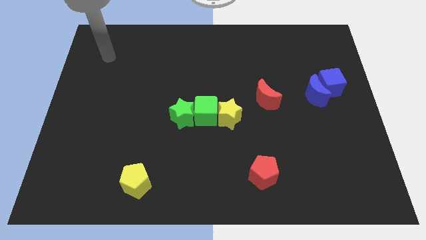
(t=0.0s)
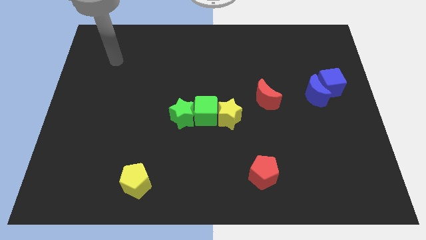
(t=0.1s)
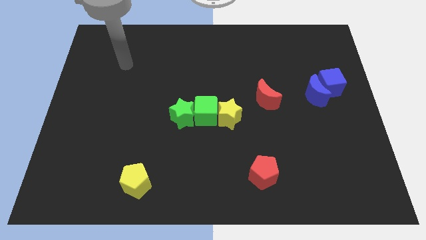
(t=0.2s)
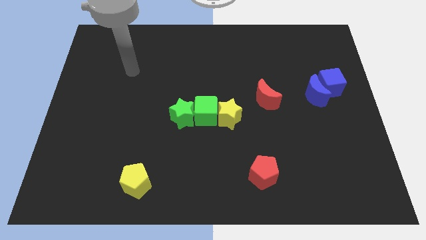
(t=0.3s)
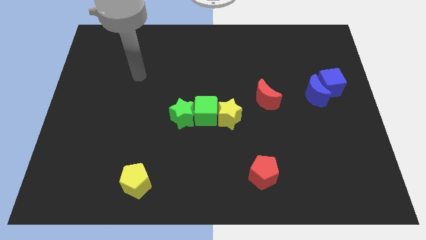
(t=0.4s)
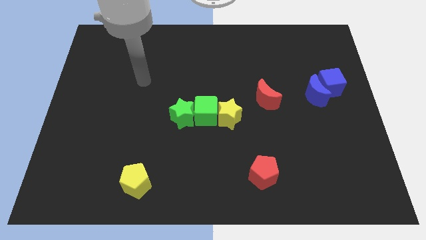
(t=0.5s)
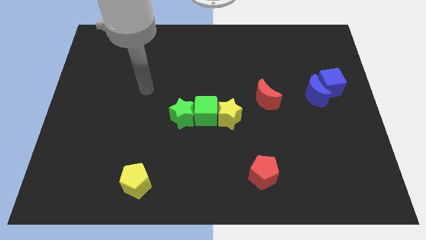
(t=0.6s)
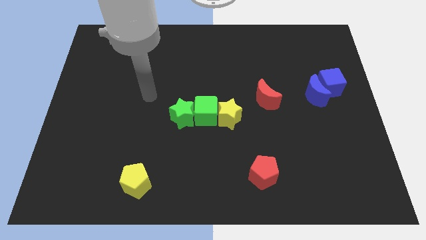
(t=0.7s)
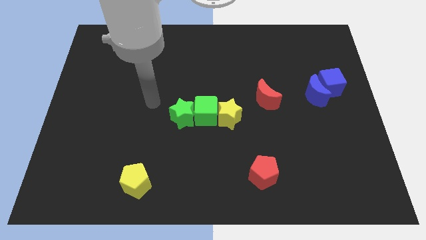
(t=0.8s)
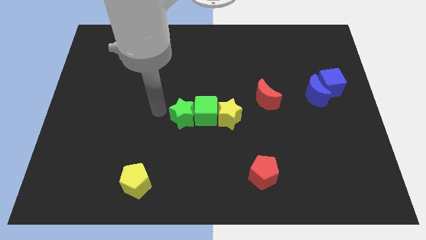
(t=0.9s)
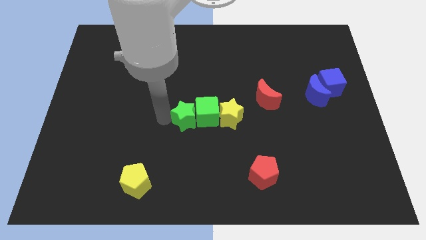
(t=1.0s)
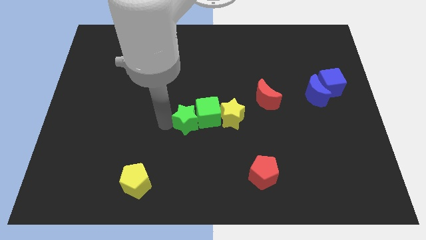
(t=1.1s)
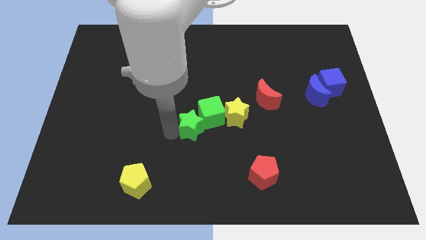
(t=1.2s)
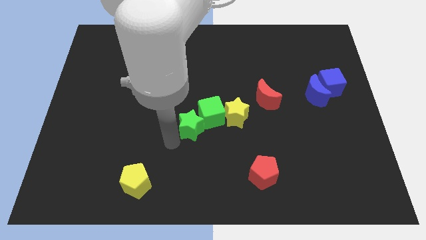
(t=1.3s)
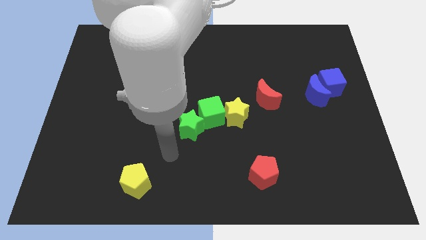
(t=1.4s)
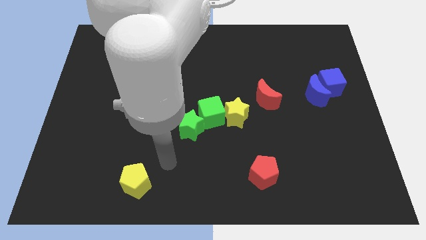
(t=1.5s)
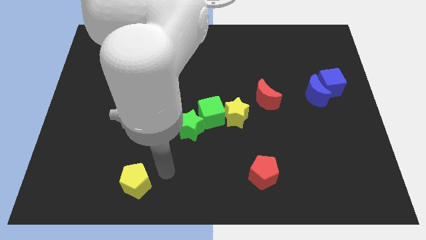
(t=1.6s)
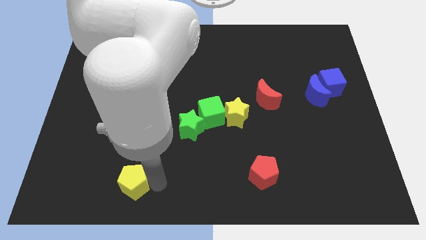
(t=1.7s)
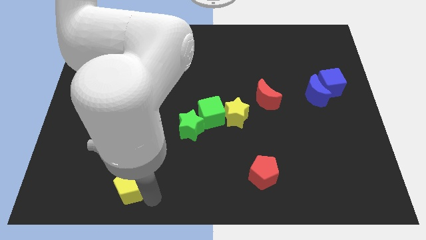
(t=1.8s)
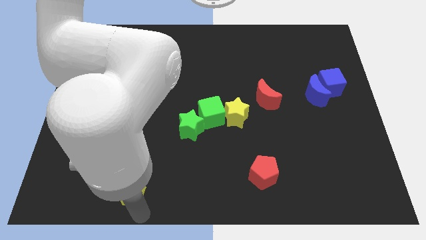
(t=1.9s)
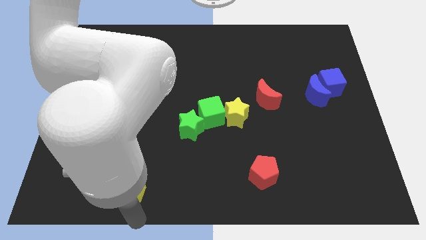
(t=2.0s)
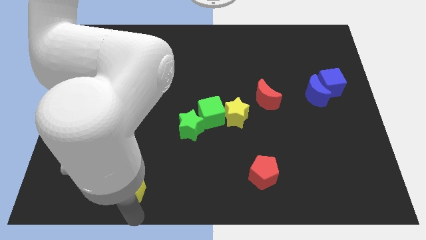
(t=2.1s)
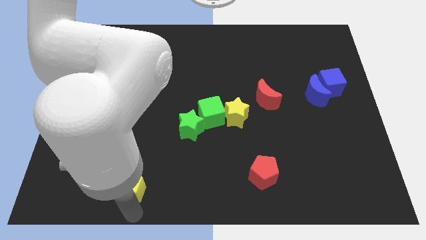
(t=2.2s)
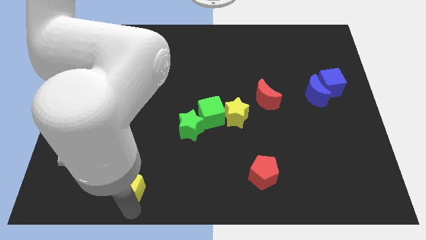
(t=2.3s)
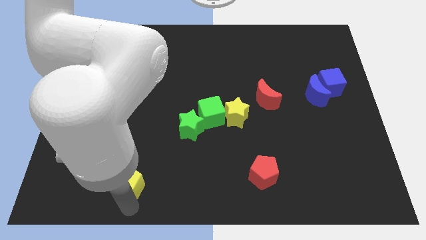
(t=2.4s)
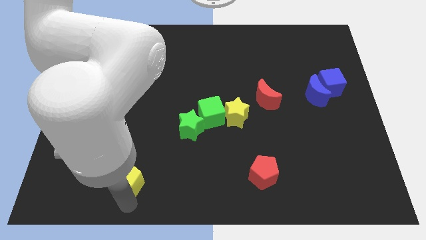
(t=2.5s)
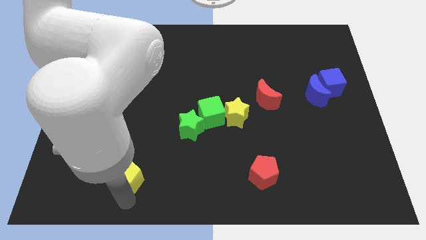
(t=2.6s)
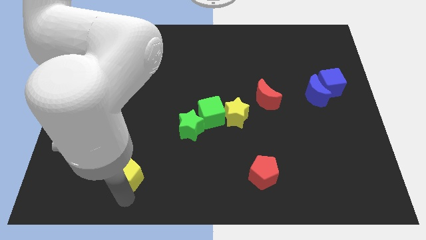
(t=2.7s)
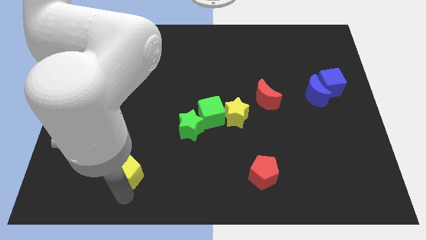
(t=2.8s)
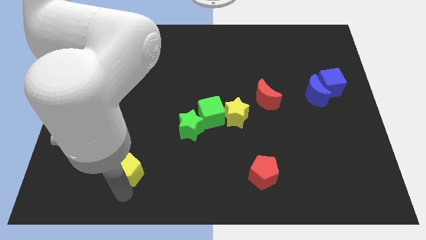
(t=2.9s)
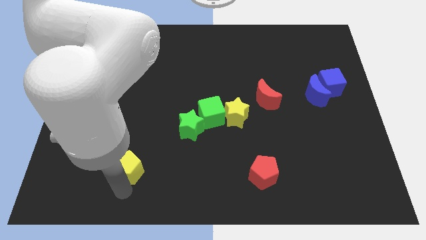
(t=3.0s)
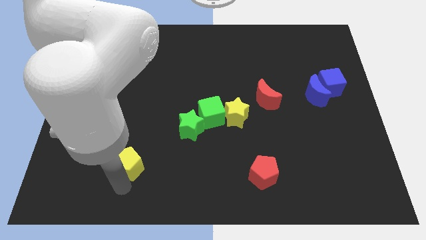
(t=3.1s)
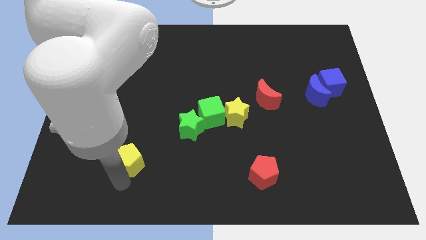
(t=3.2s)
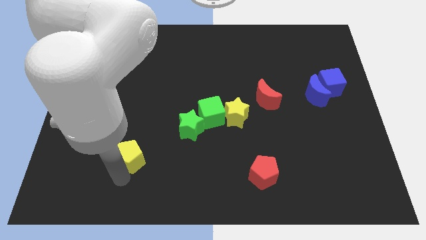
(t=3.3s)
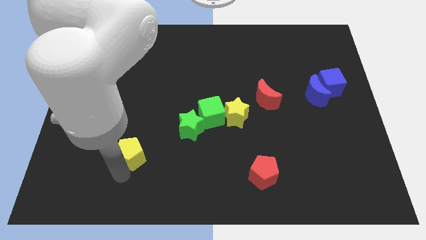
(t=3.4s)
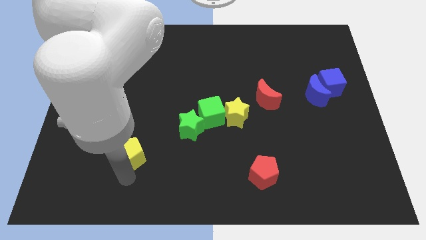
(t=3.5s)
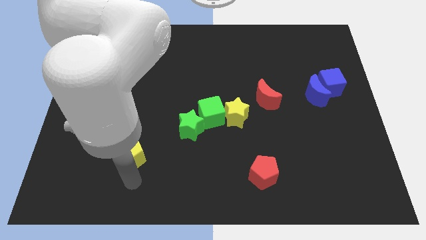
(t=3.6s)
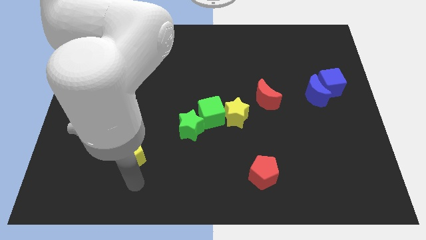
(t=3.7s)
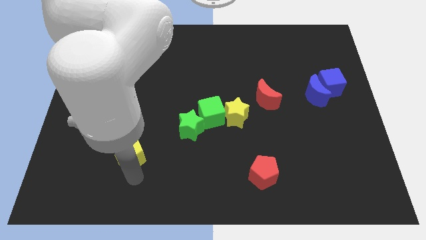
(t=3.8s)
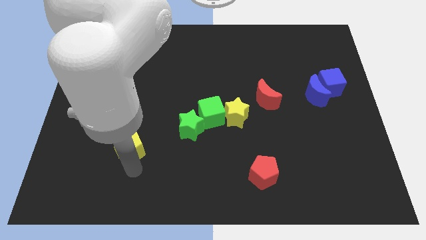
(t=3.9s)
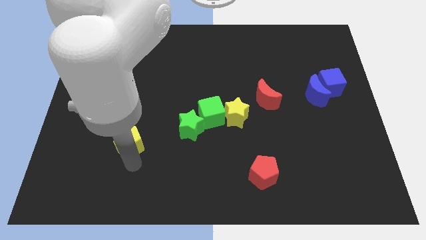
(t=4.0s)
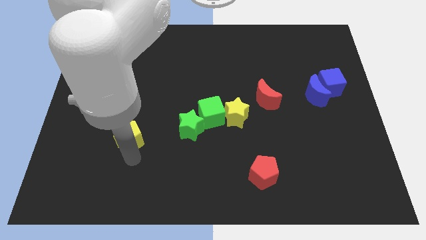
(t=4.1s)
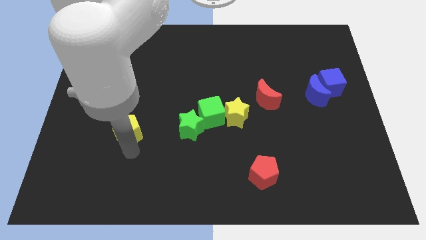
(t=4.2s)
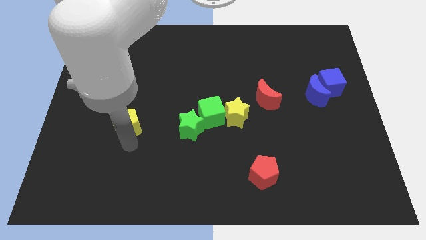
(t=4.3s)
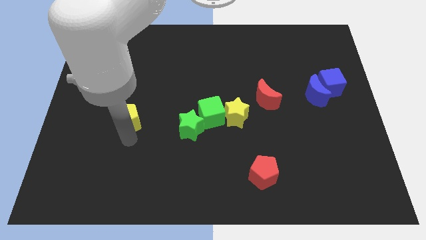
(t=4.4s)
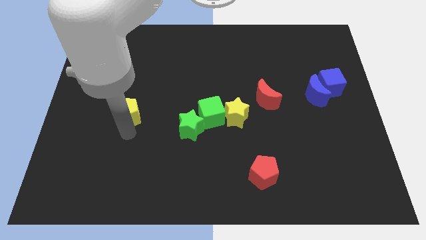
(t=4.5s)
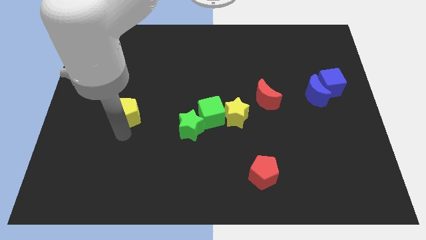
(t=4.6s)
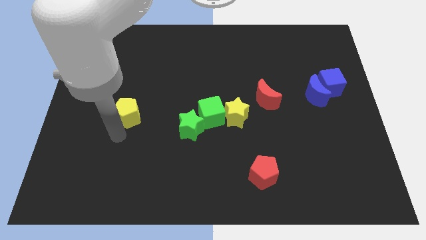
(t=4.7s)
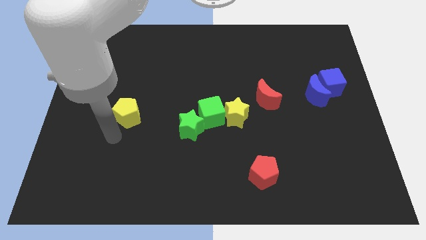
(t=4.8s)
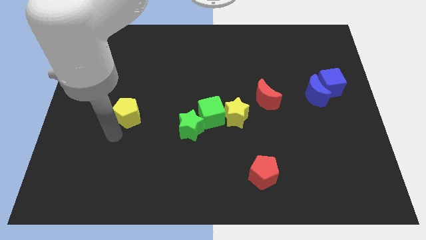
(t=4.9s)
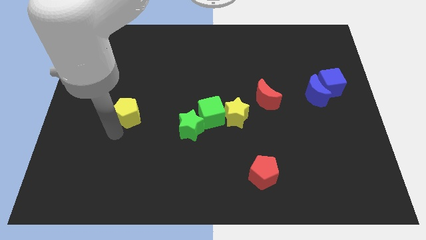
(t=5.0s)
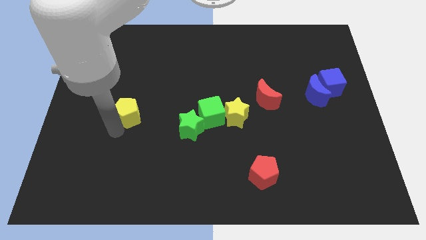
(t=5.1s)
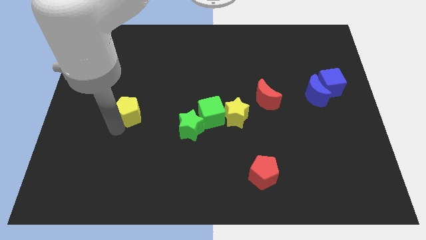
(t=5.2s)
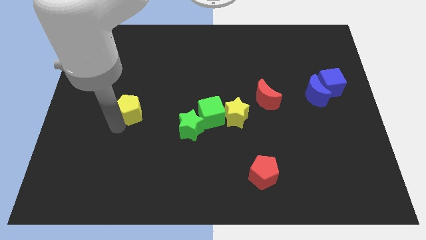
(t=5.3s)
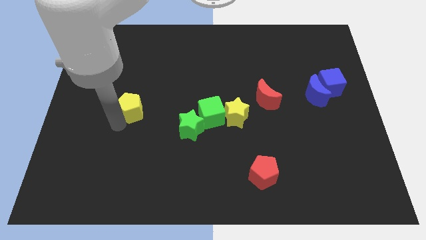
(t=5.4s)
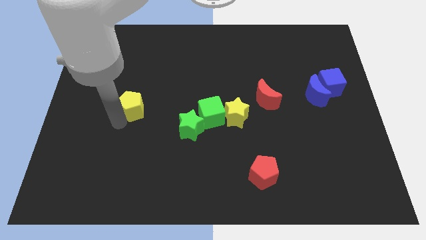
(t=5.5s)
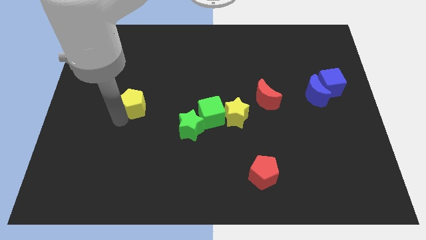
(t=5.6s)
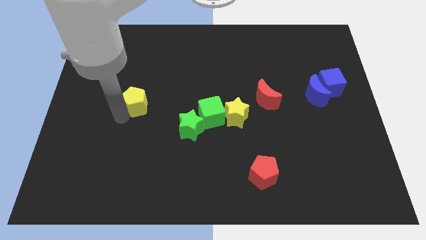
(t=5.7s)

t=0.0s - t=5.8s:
move the yellow pentagon up

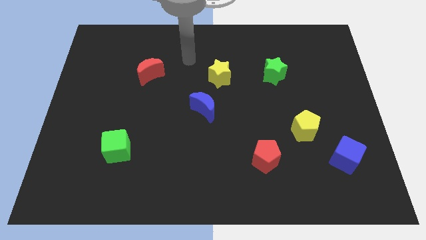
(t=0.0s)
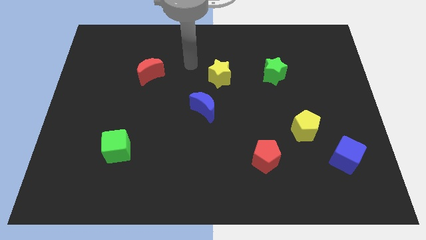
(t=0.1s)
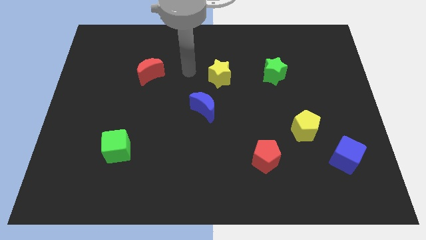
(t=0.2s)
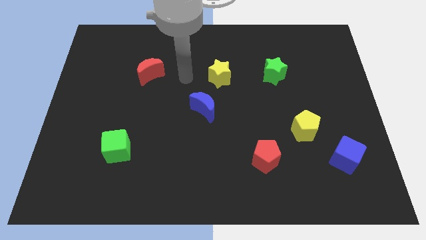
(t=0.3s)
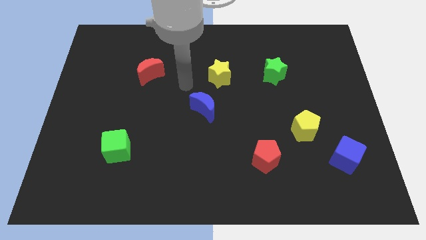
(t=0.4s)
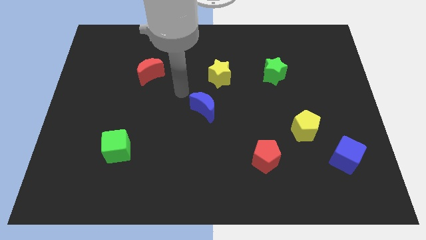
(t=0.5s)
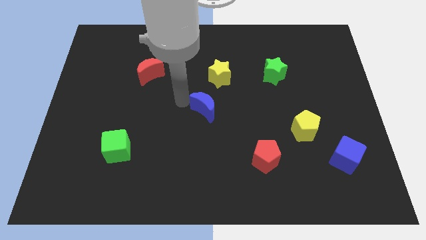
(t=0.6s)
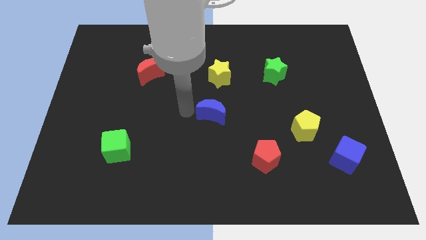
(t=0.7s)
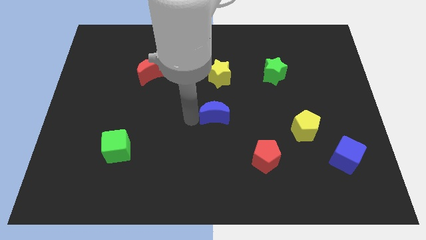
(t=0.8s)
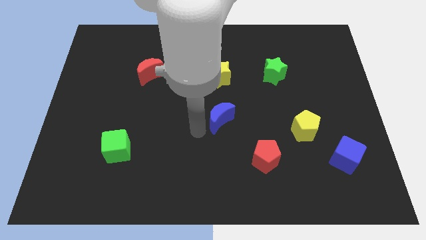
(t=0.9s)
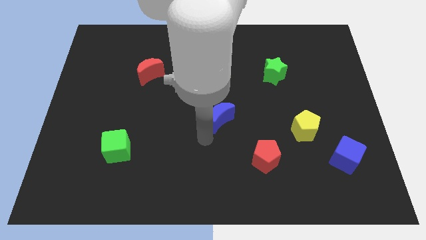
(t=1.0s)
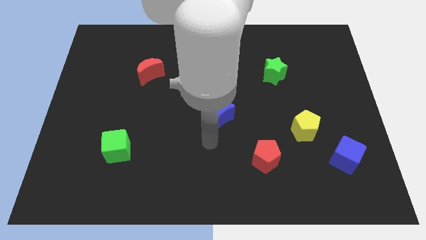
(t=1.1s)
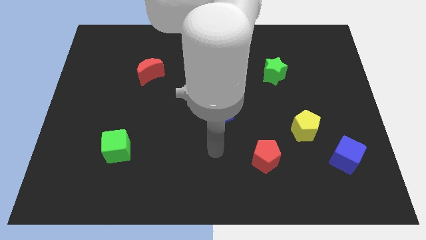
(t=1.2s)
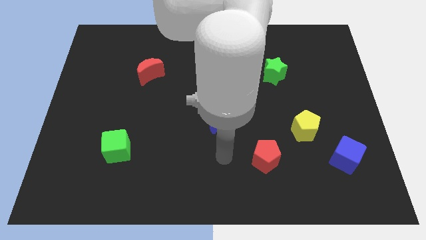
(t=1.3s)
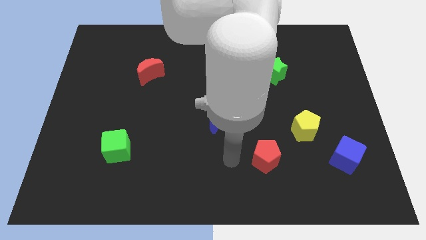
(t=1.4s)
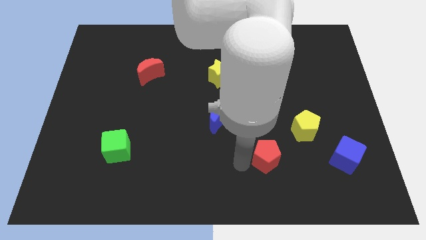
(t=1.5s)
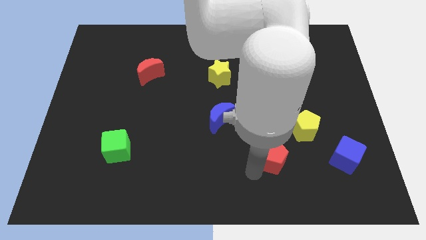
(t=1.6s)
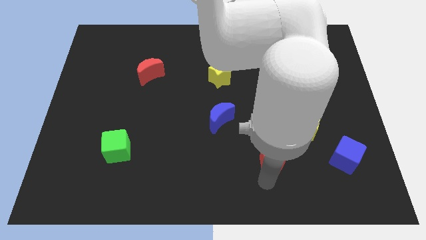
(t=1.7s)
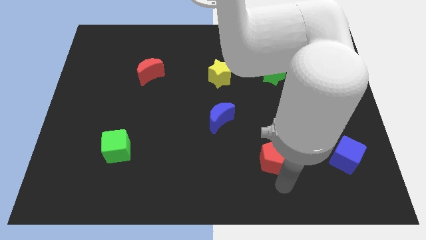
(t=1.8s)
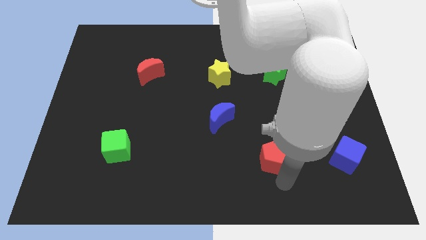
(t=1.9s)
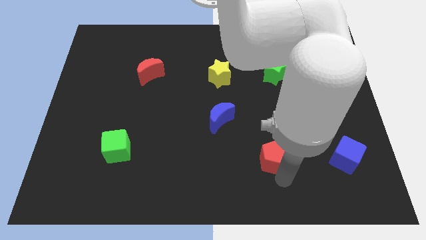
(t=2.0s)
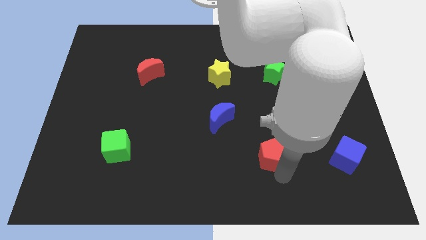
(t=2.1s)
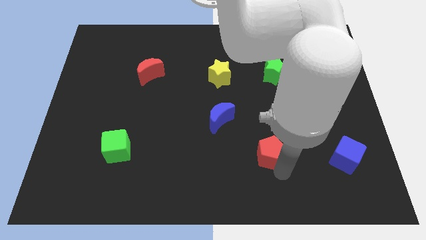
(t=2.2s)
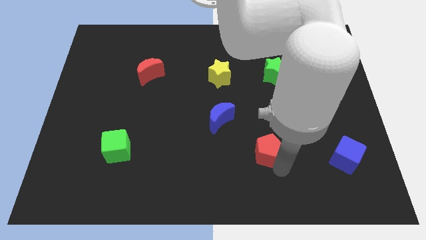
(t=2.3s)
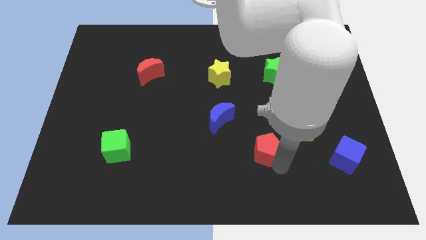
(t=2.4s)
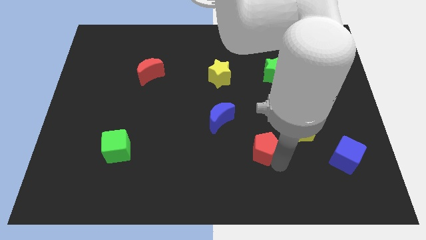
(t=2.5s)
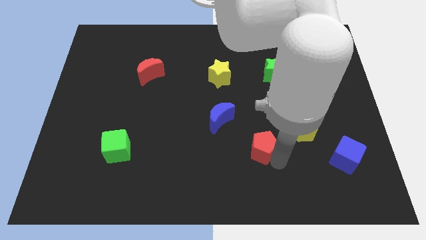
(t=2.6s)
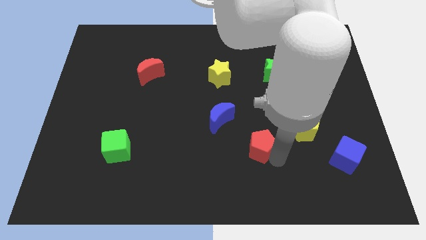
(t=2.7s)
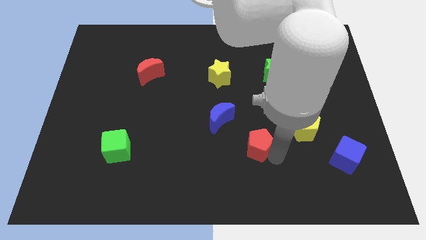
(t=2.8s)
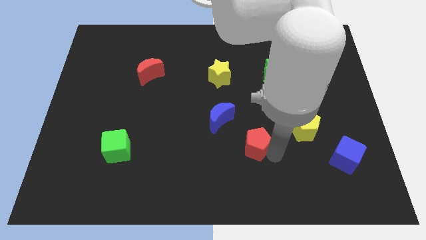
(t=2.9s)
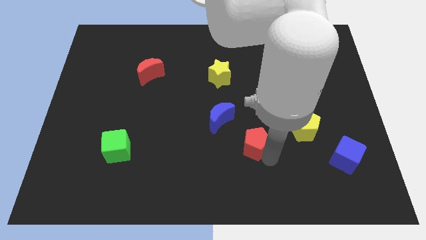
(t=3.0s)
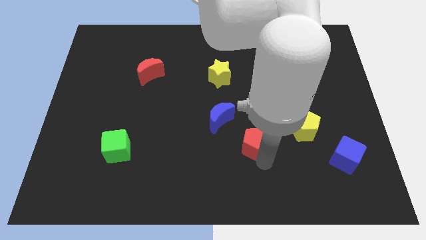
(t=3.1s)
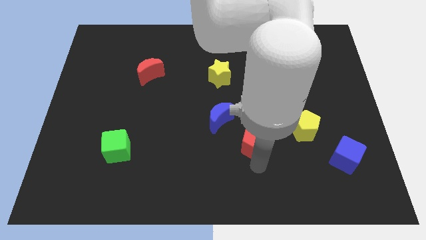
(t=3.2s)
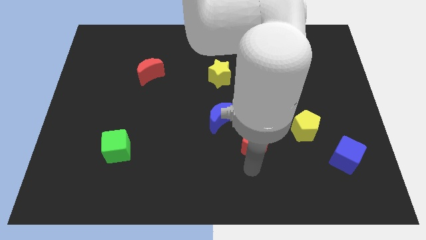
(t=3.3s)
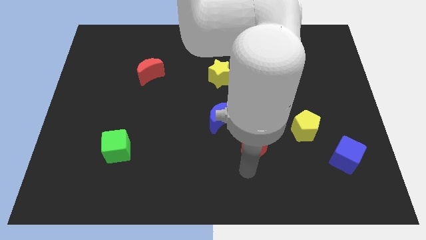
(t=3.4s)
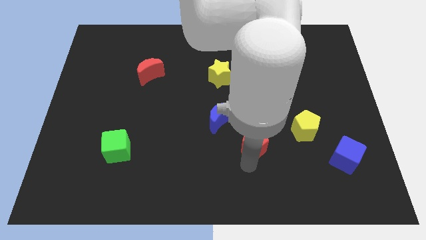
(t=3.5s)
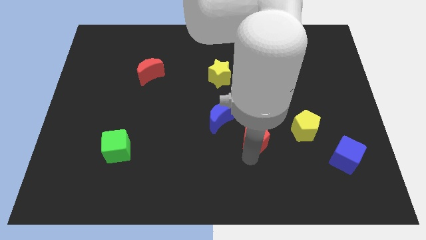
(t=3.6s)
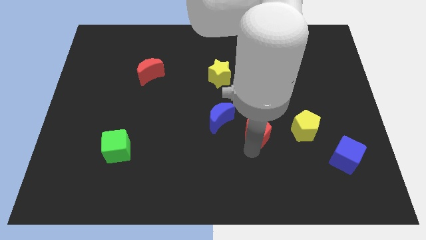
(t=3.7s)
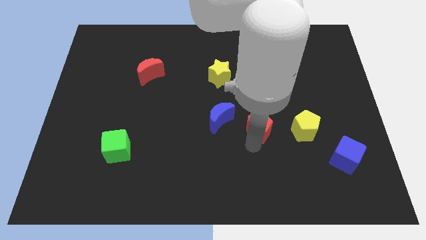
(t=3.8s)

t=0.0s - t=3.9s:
push the red pentagon up somewhat
